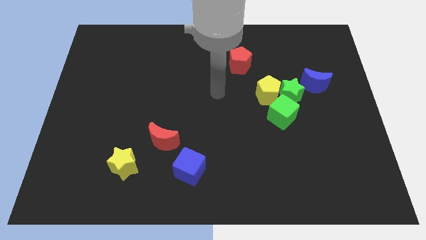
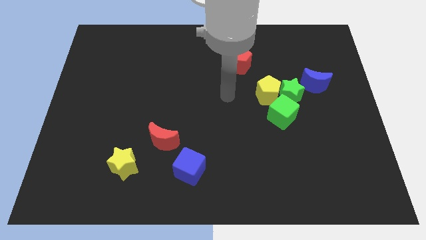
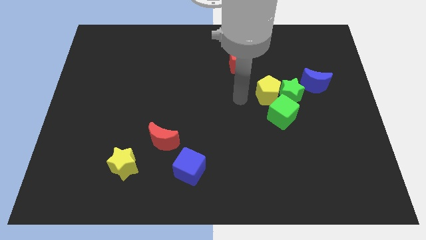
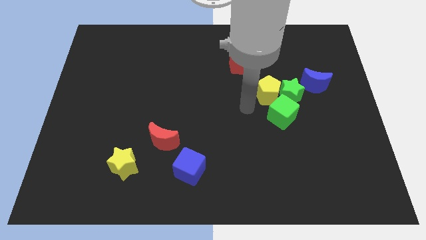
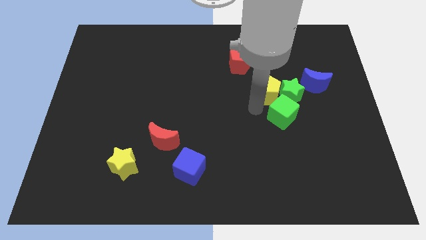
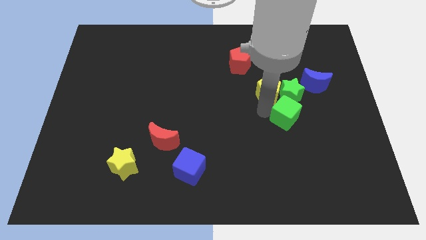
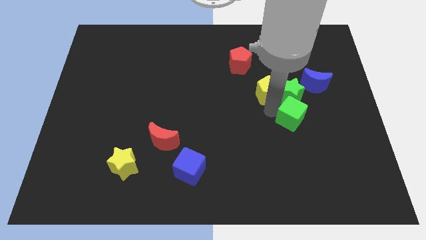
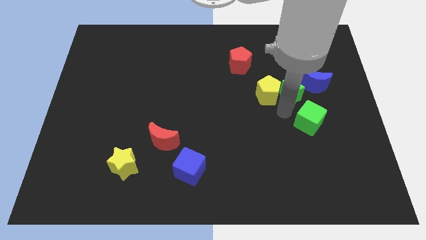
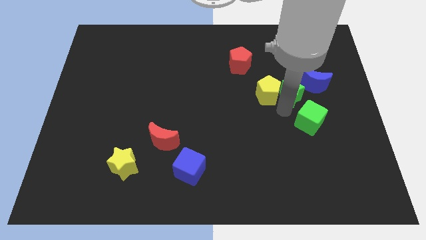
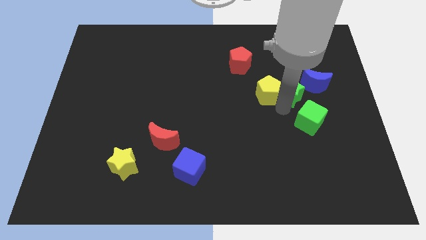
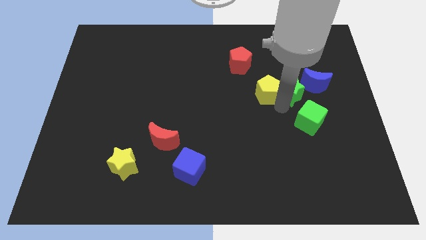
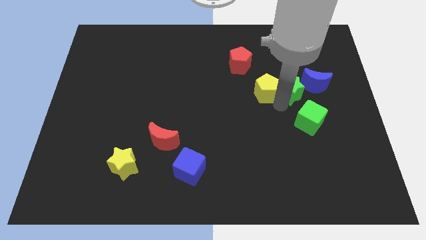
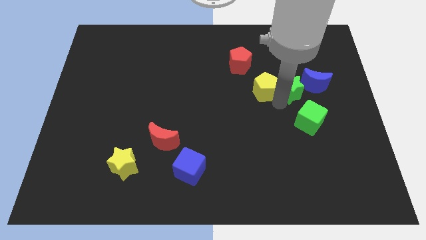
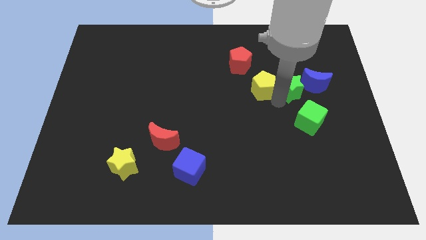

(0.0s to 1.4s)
separate the yellow pentagon from the green star and green cube

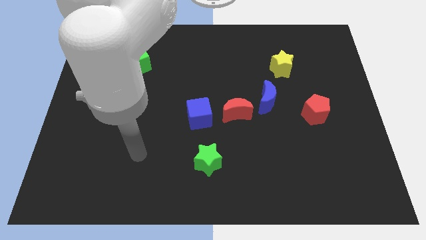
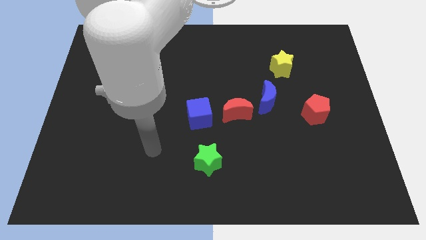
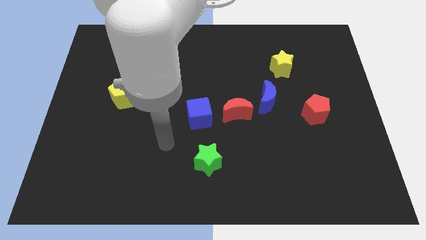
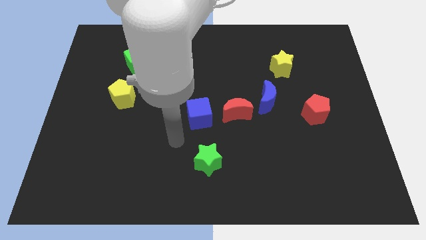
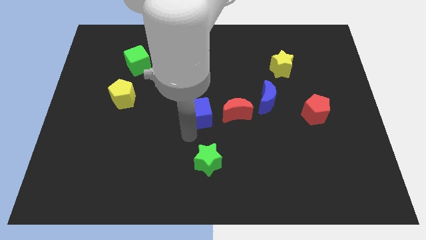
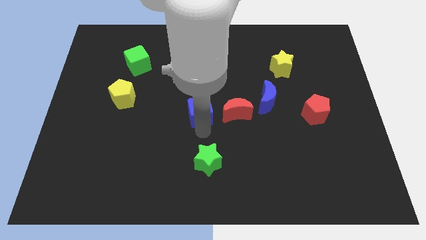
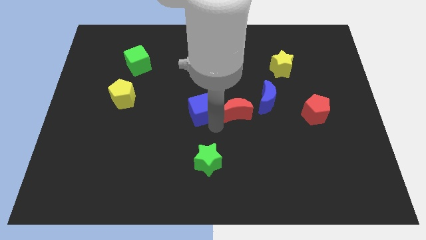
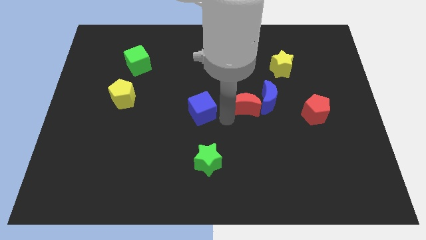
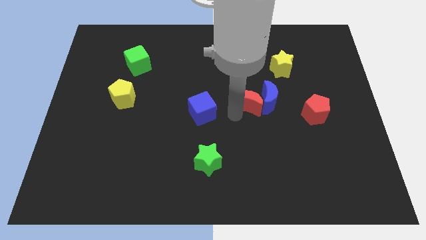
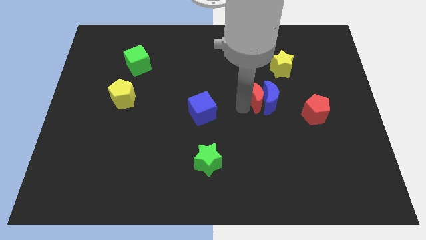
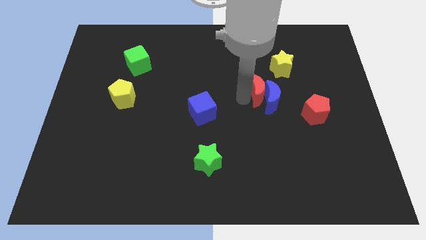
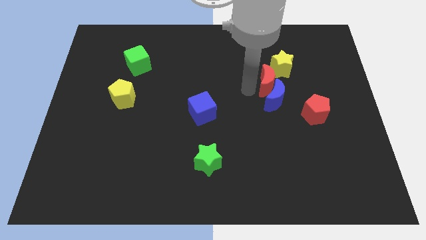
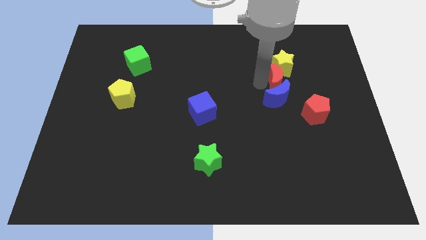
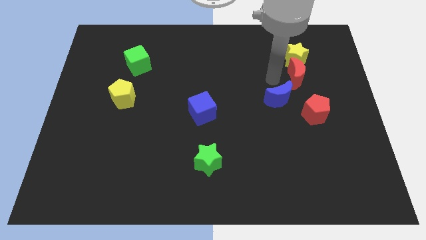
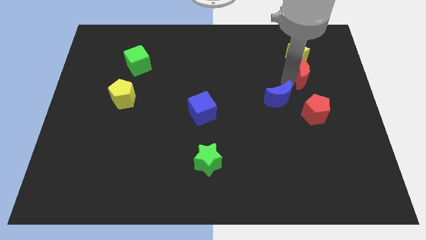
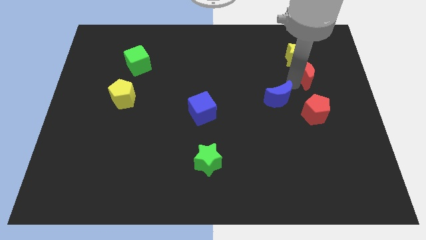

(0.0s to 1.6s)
separate the blue moon from the red moon

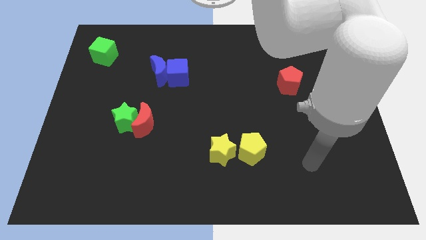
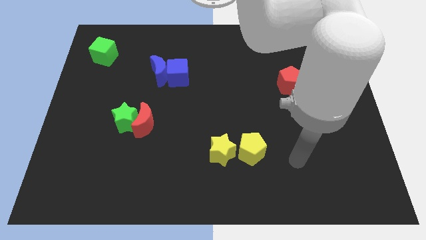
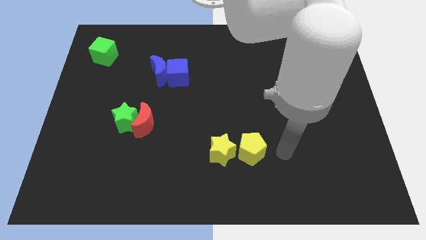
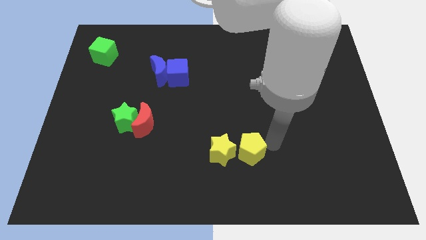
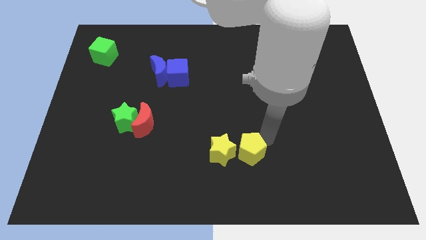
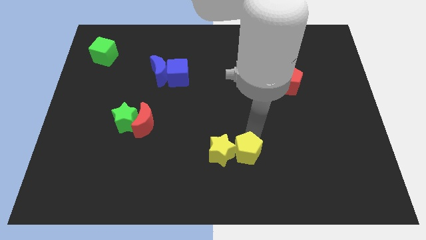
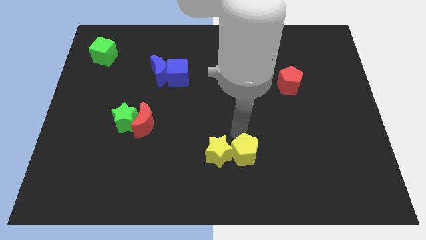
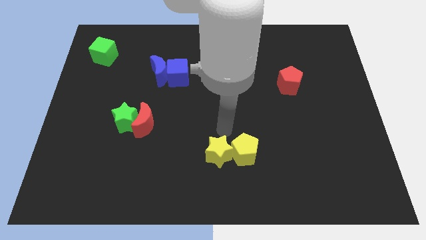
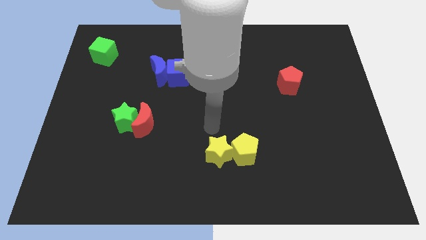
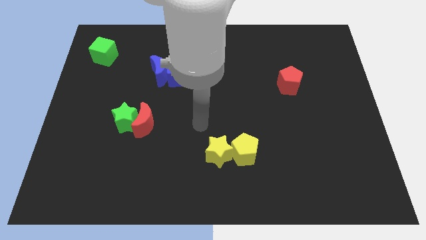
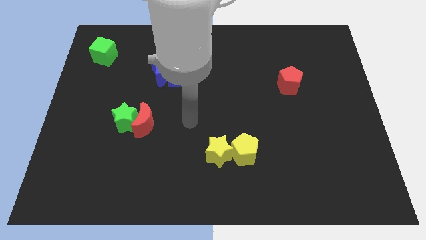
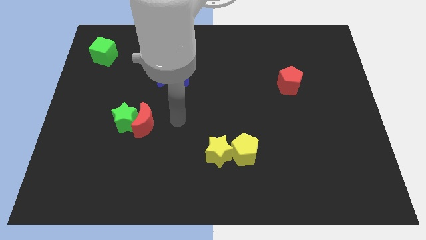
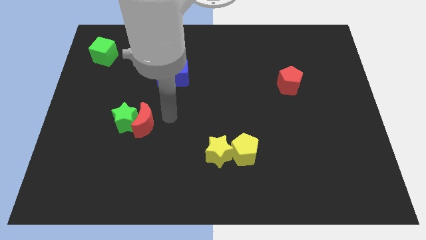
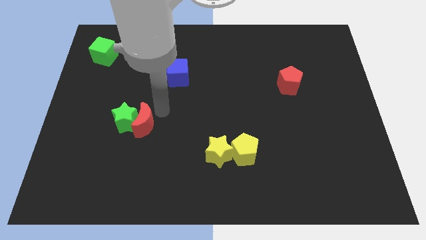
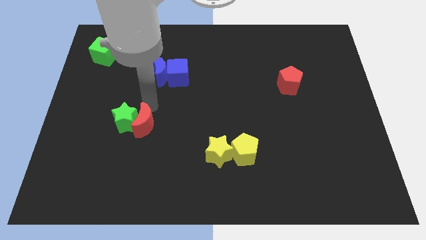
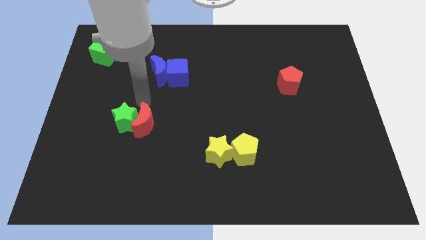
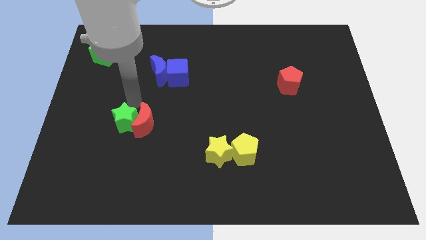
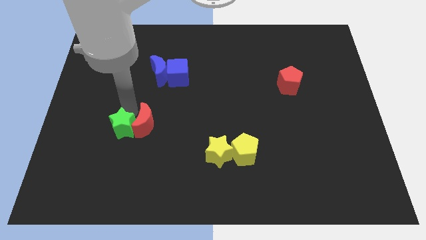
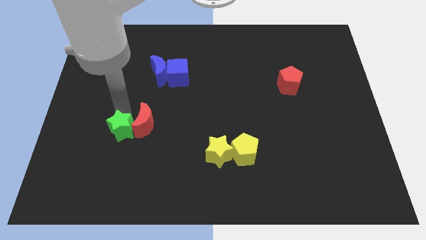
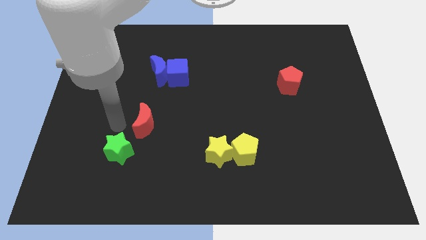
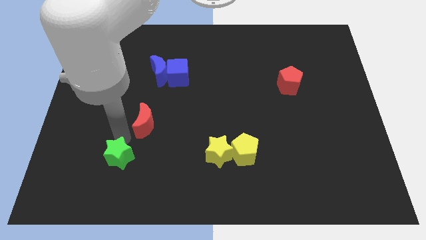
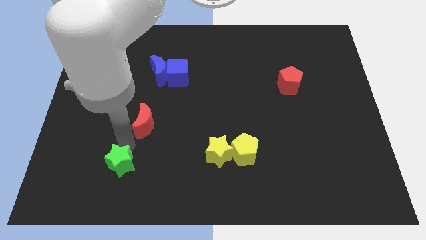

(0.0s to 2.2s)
pull the red moon apart from the green star

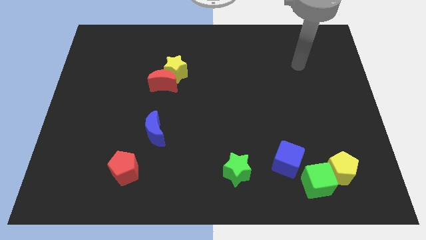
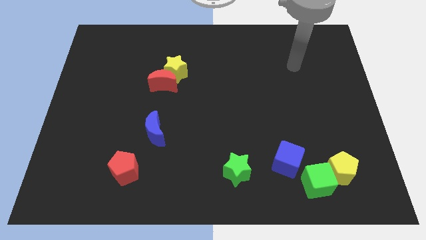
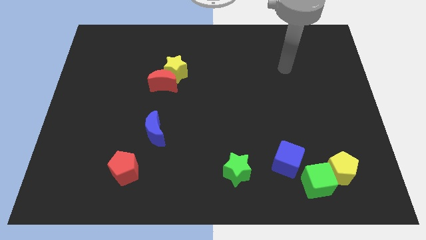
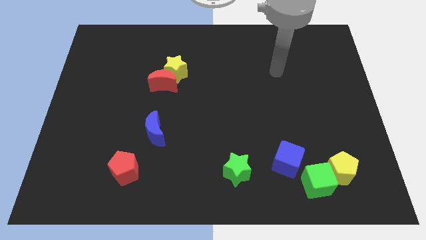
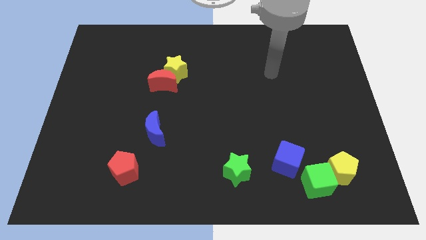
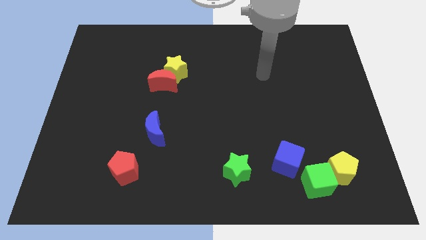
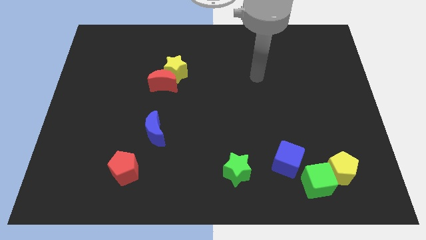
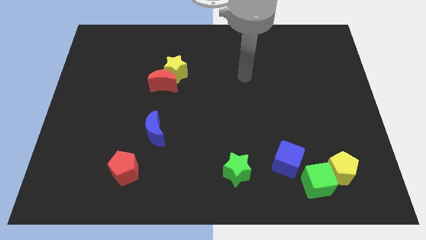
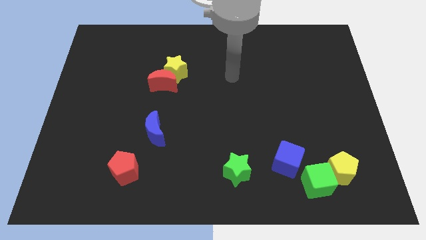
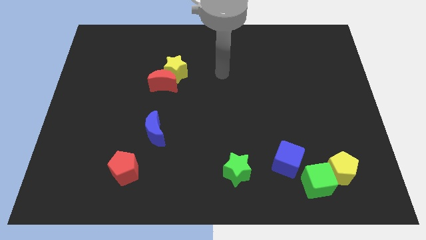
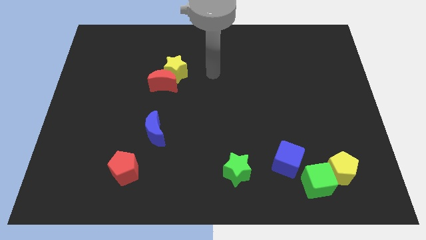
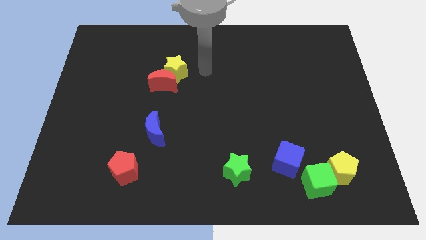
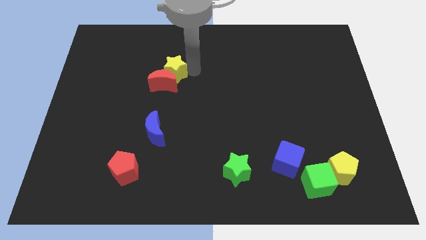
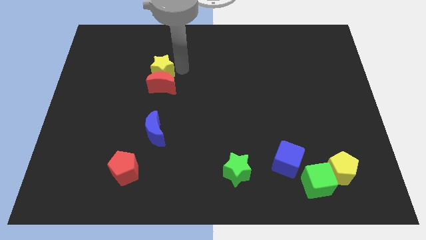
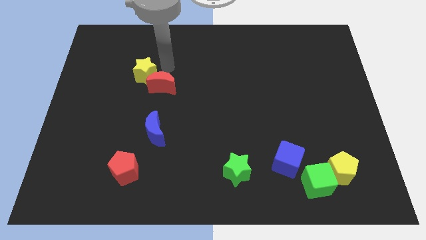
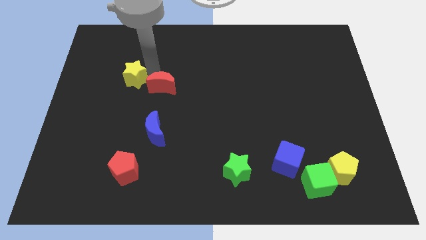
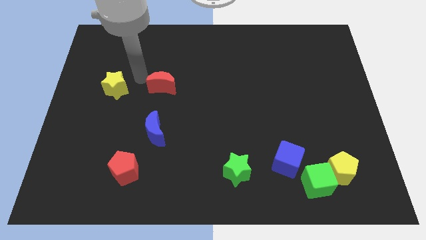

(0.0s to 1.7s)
pull the red moon apart from the yellow star

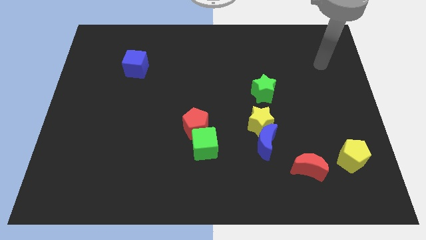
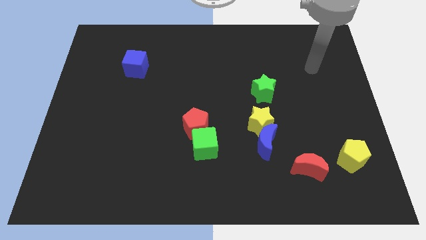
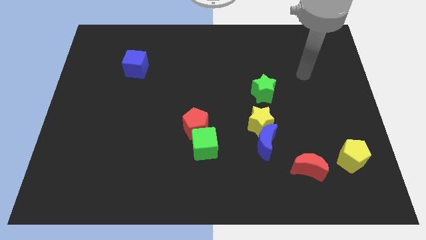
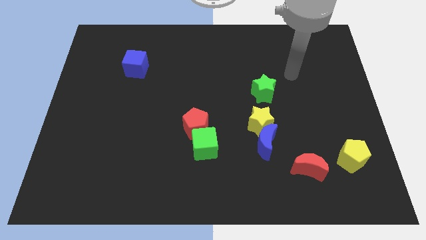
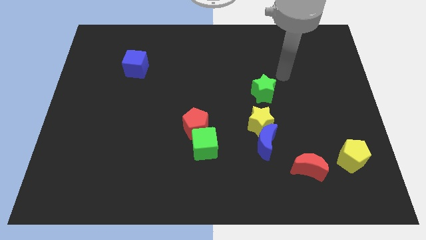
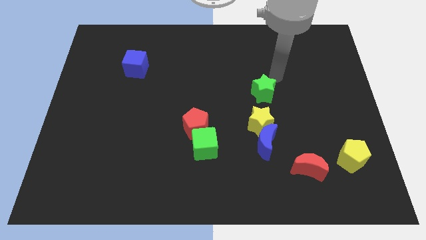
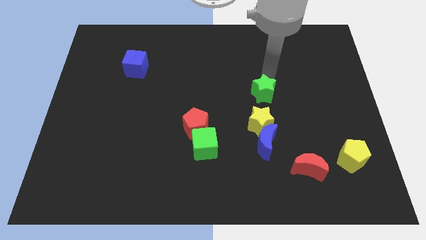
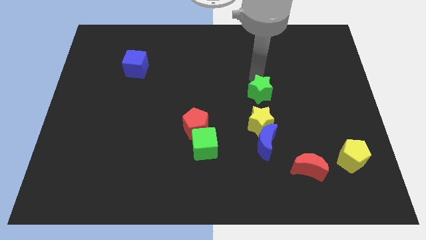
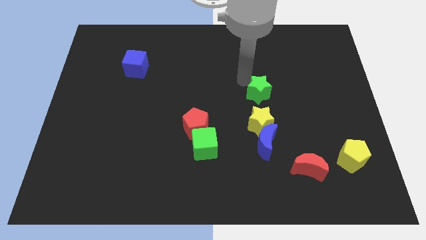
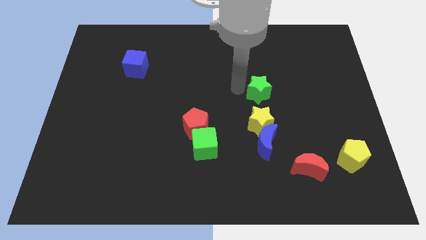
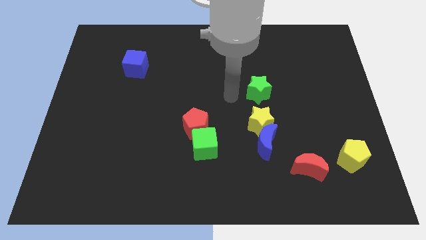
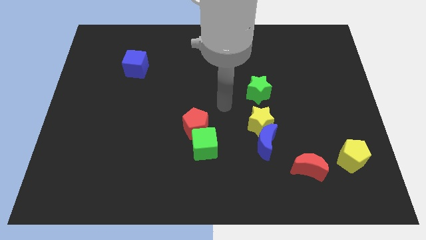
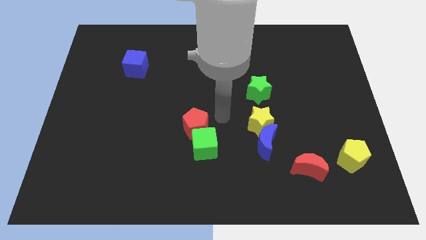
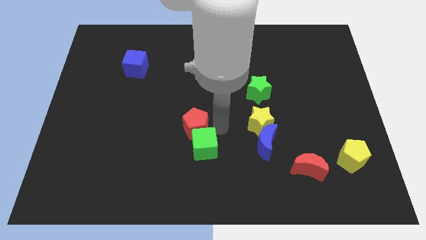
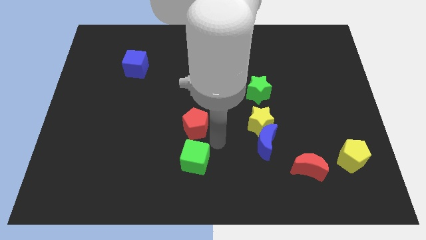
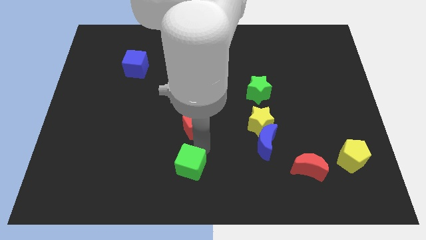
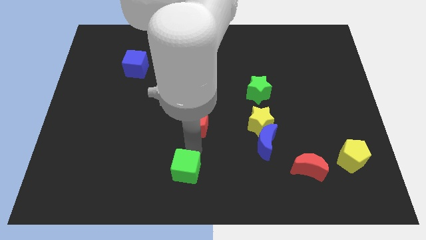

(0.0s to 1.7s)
separate the red pentagon from the green cube

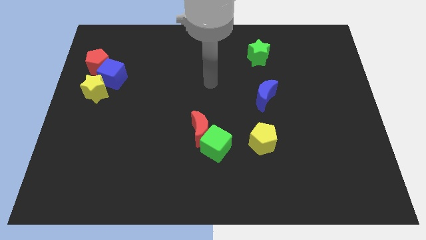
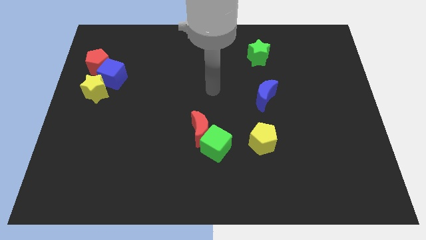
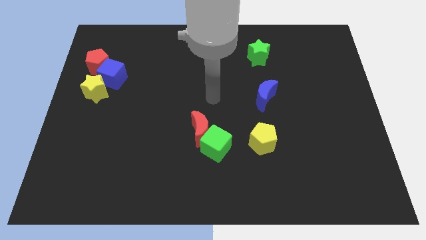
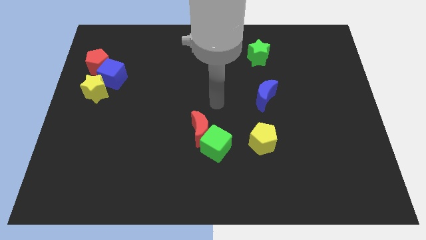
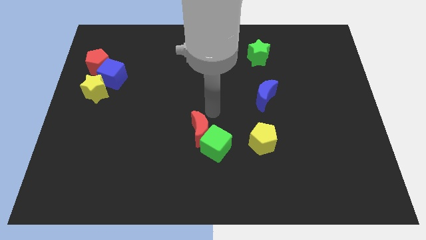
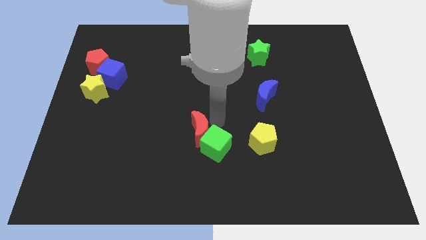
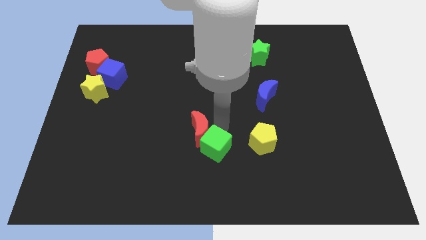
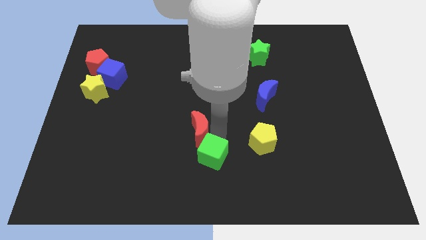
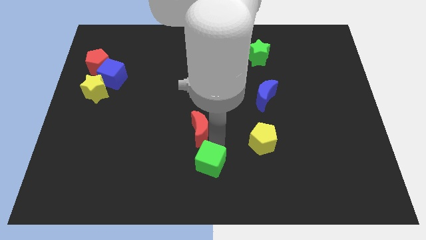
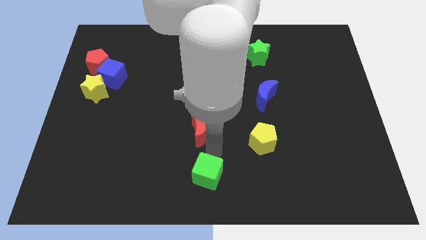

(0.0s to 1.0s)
pull the red moon apart from the green cube
